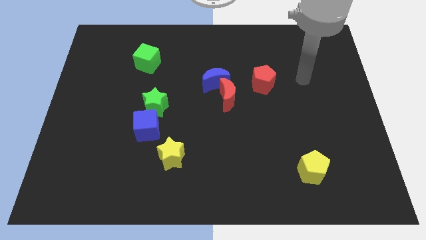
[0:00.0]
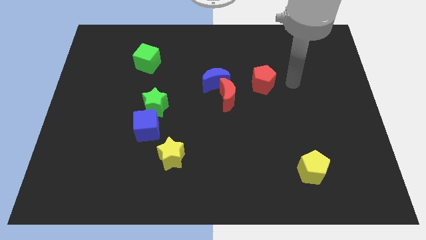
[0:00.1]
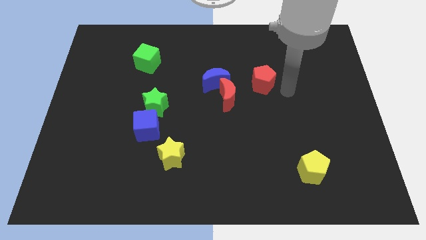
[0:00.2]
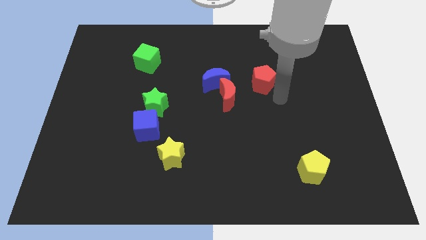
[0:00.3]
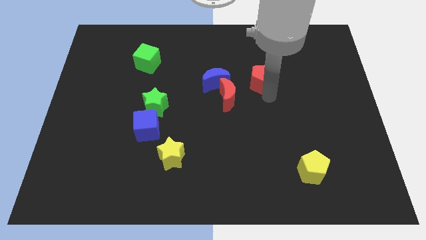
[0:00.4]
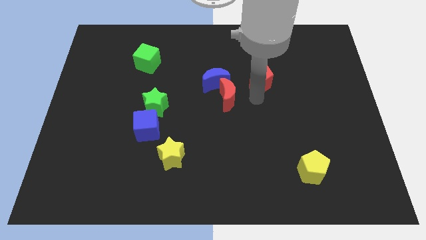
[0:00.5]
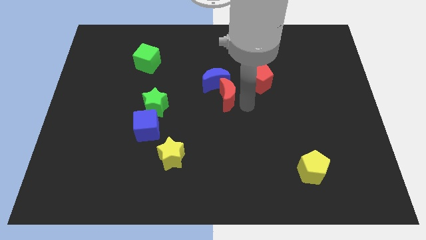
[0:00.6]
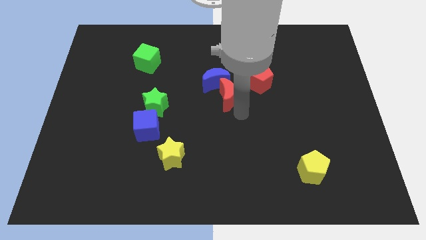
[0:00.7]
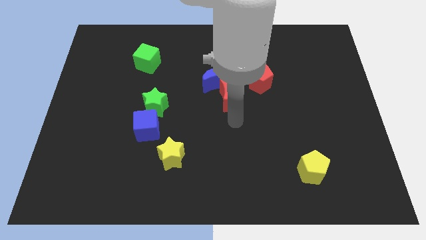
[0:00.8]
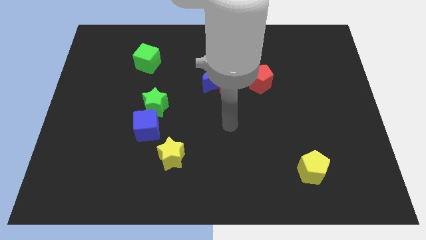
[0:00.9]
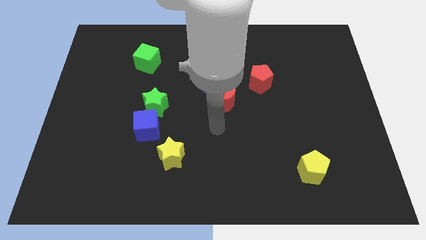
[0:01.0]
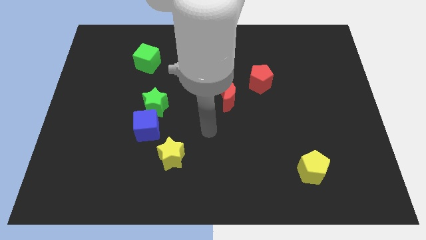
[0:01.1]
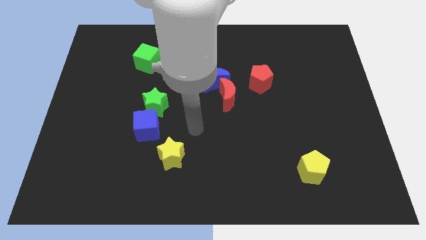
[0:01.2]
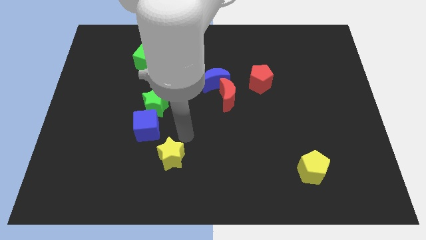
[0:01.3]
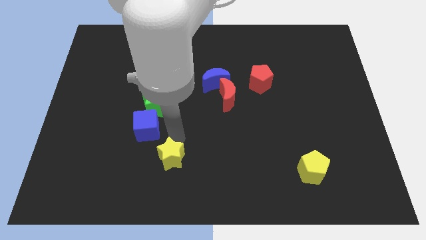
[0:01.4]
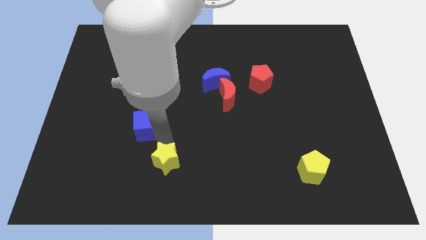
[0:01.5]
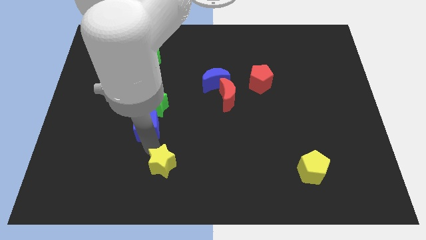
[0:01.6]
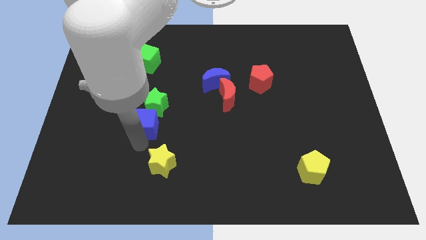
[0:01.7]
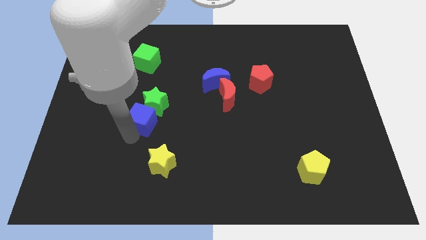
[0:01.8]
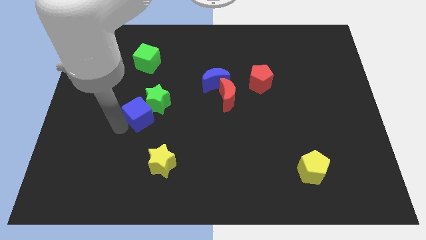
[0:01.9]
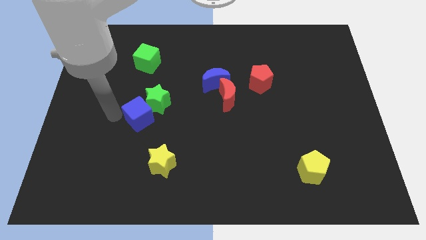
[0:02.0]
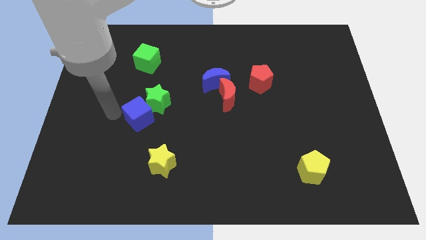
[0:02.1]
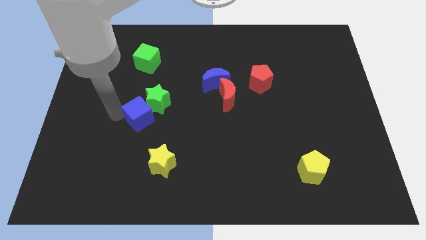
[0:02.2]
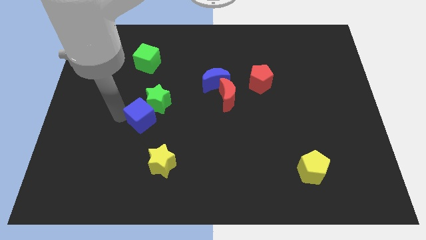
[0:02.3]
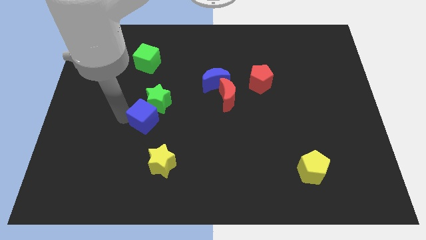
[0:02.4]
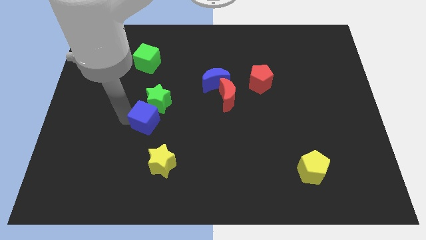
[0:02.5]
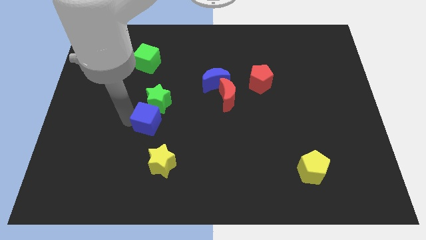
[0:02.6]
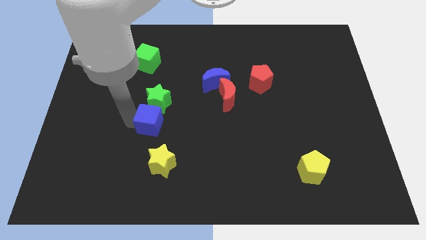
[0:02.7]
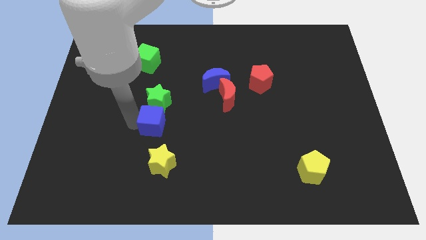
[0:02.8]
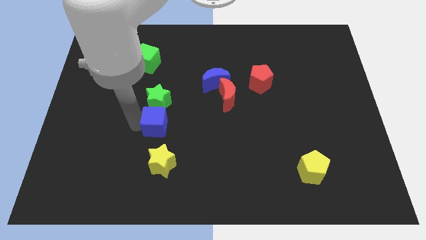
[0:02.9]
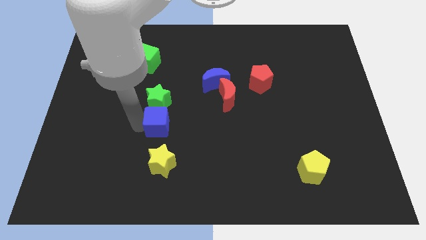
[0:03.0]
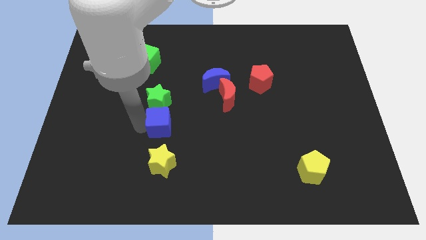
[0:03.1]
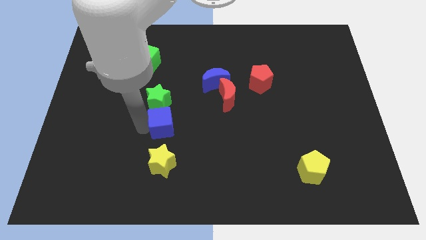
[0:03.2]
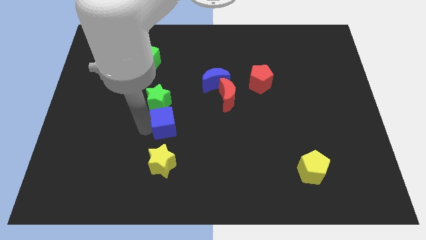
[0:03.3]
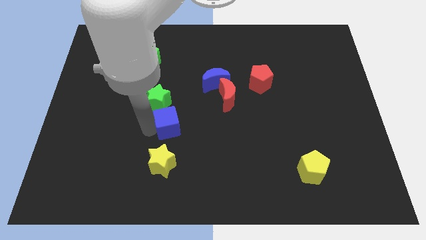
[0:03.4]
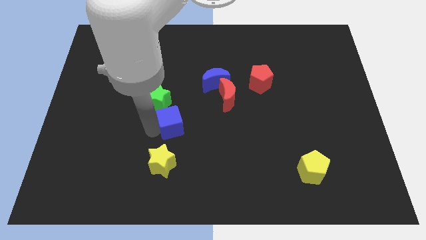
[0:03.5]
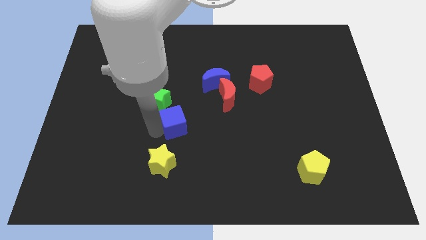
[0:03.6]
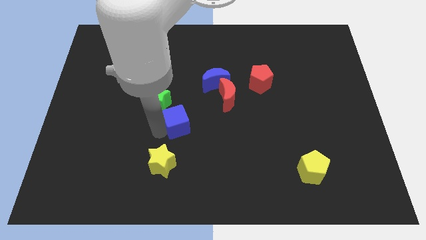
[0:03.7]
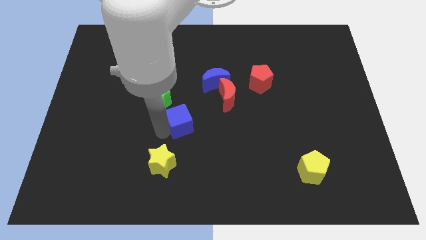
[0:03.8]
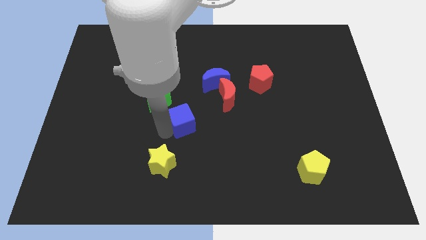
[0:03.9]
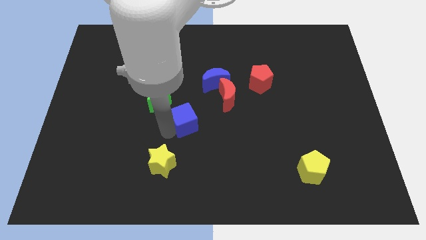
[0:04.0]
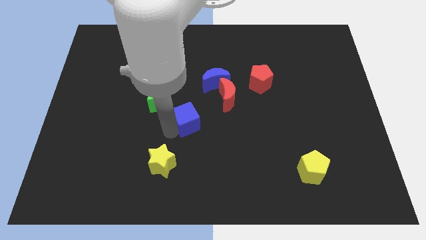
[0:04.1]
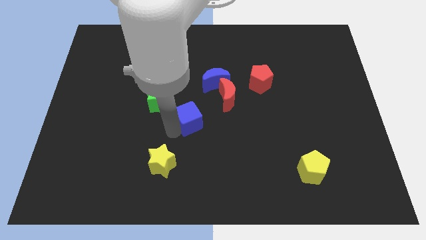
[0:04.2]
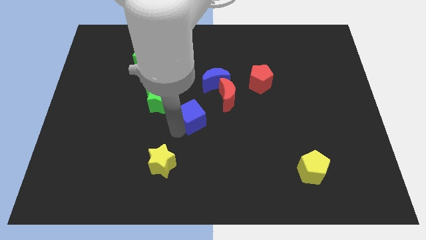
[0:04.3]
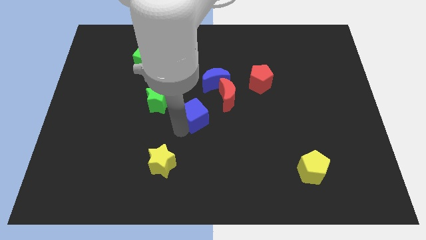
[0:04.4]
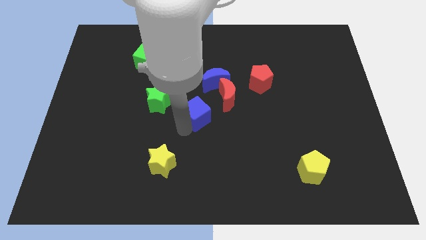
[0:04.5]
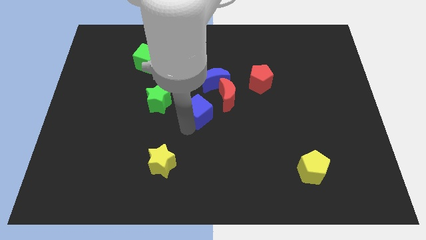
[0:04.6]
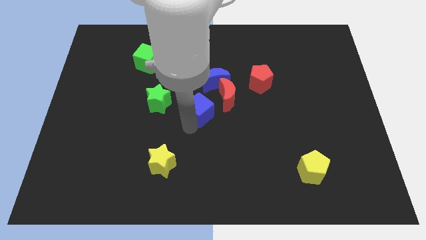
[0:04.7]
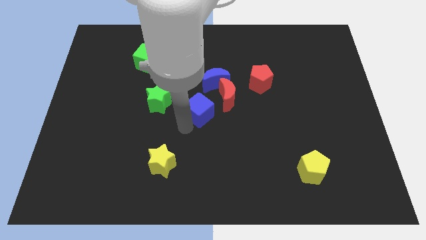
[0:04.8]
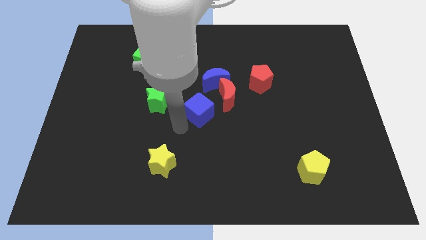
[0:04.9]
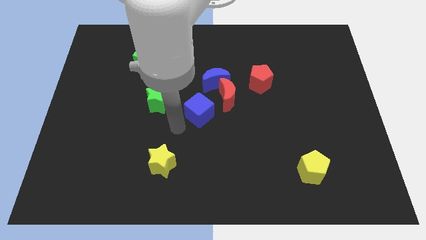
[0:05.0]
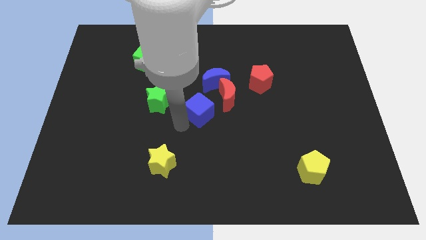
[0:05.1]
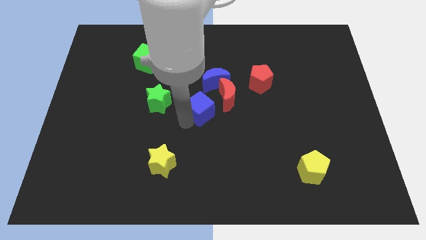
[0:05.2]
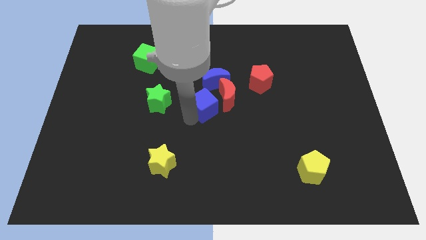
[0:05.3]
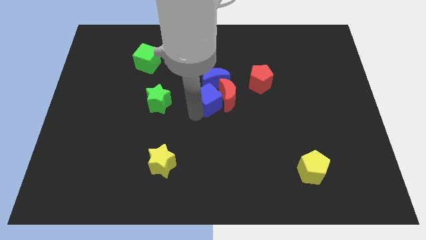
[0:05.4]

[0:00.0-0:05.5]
put the blue cube close to the red moon

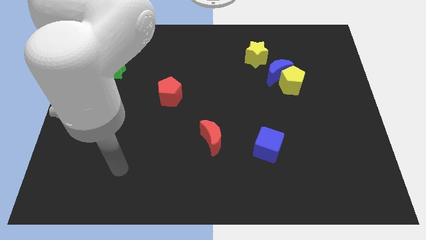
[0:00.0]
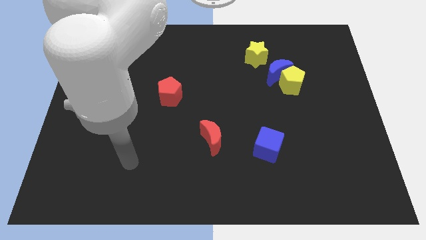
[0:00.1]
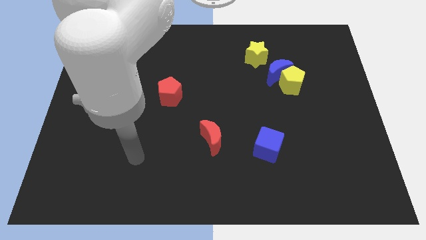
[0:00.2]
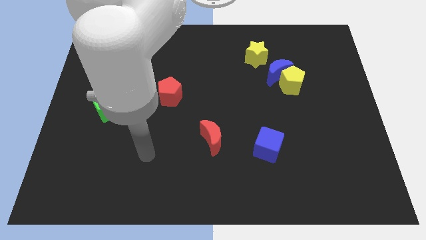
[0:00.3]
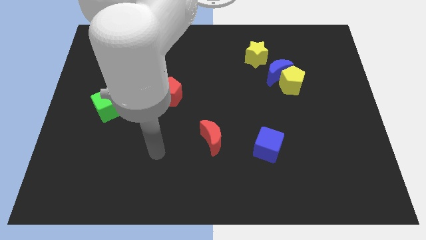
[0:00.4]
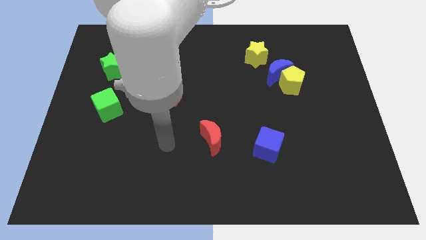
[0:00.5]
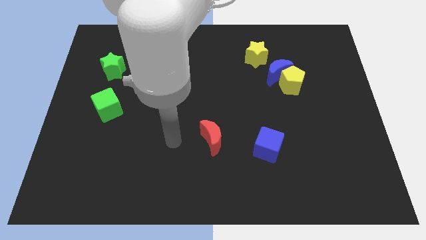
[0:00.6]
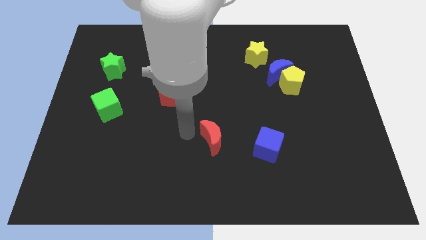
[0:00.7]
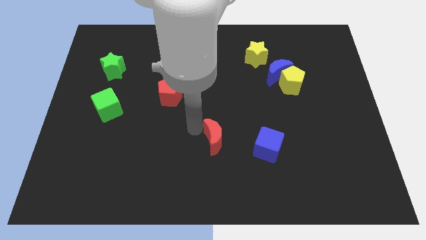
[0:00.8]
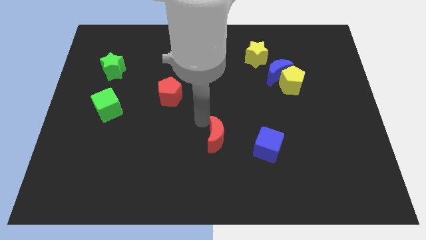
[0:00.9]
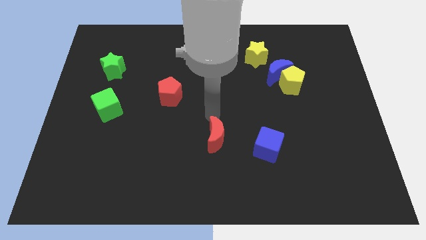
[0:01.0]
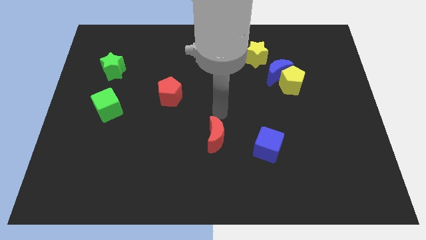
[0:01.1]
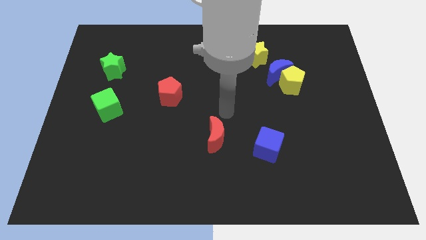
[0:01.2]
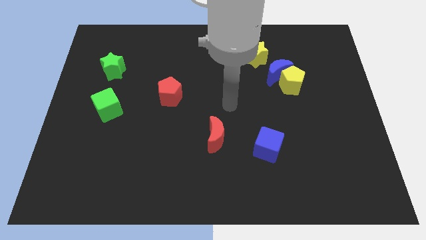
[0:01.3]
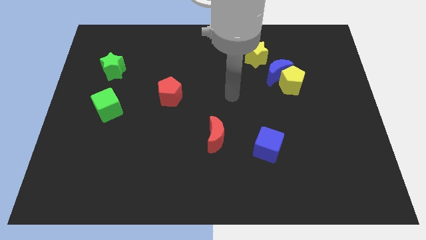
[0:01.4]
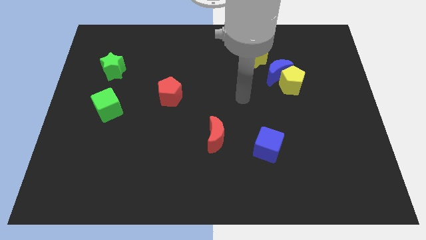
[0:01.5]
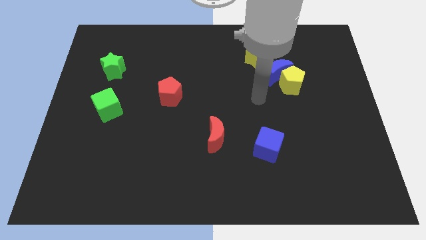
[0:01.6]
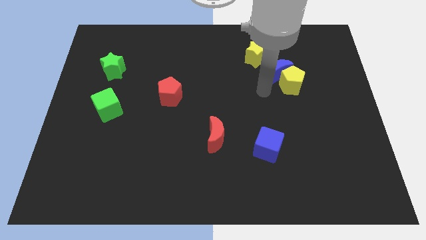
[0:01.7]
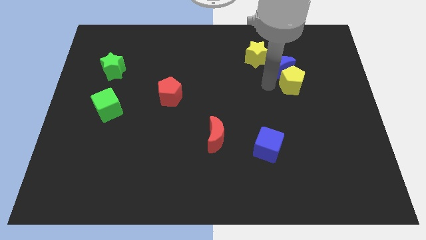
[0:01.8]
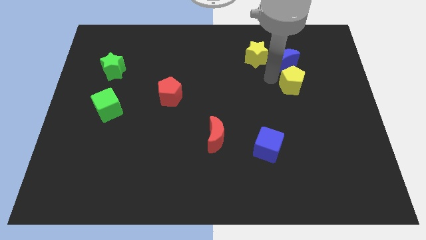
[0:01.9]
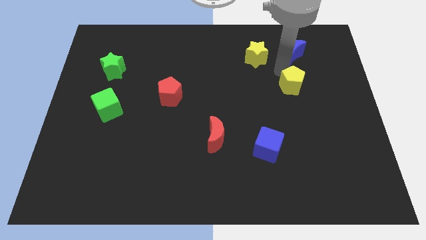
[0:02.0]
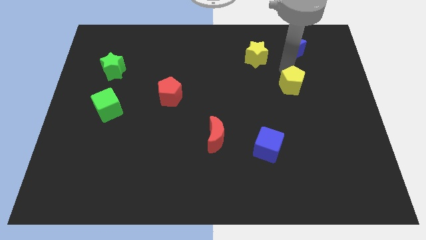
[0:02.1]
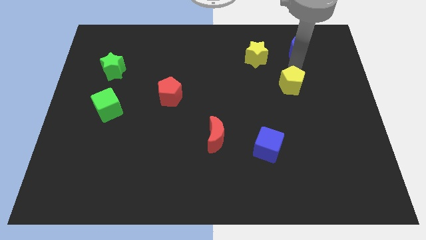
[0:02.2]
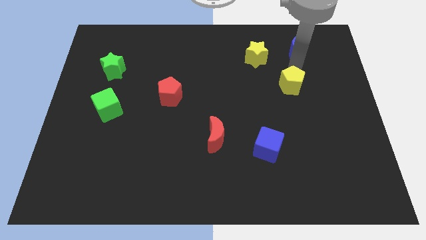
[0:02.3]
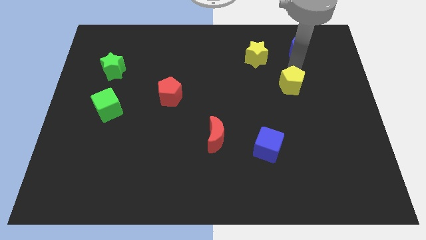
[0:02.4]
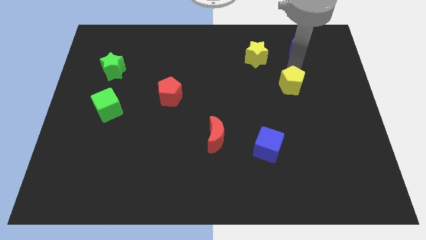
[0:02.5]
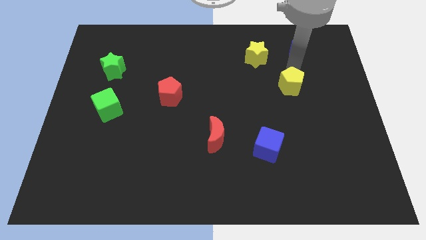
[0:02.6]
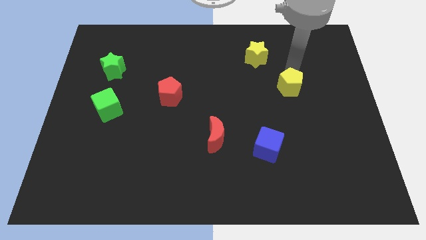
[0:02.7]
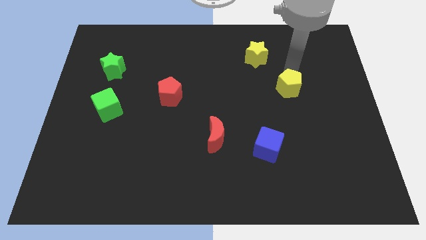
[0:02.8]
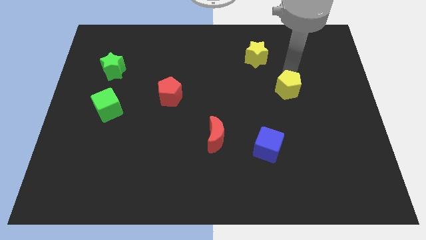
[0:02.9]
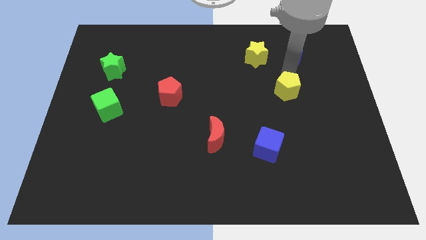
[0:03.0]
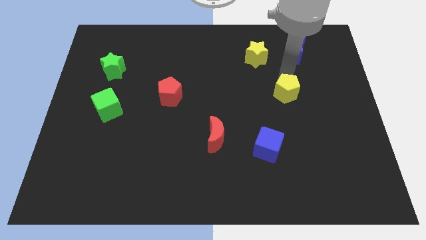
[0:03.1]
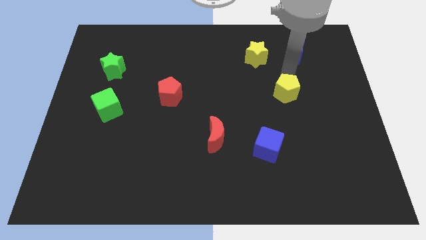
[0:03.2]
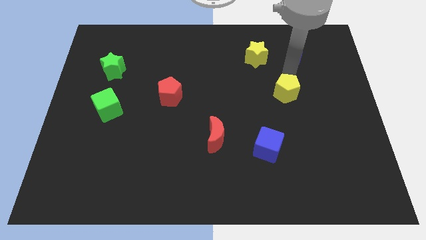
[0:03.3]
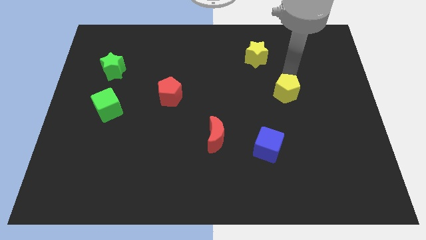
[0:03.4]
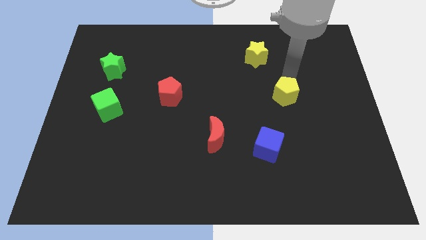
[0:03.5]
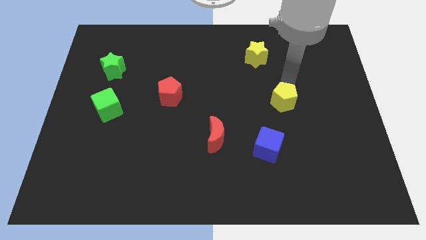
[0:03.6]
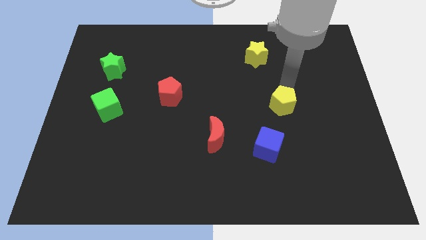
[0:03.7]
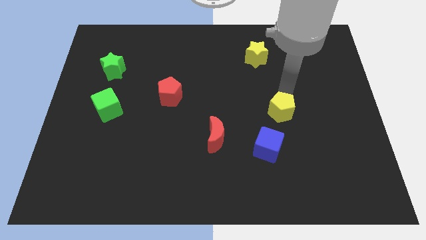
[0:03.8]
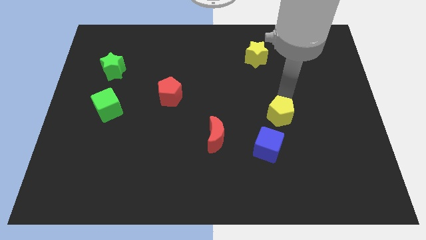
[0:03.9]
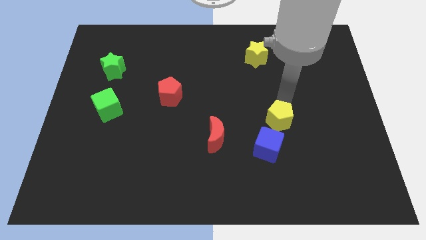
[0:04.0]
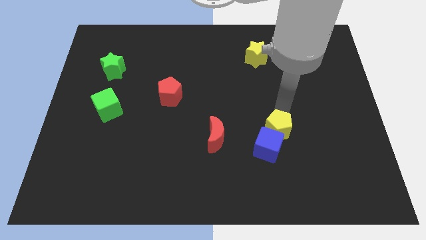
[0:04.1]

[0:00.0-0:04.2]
slide the yellow pentagon to the blue cube
